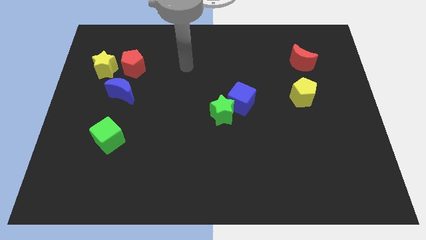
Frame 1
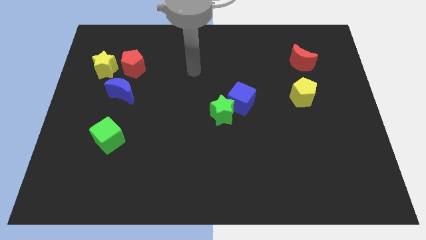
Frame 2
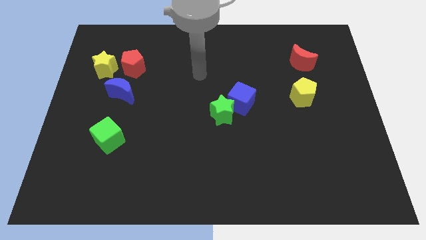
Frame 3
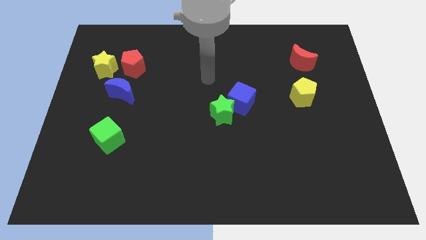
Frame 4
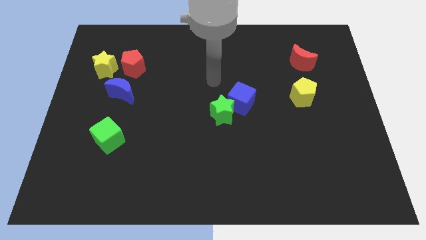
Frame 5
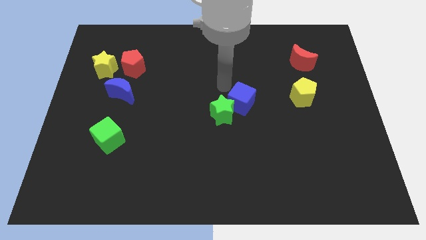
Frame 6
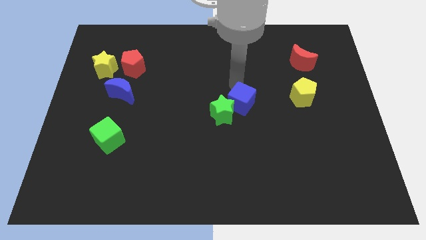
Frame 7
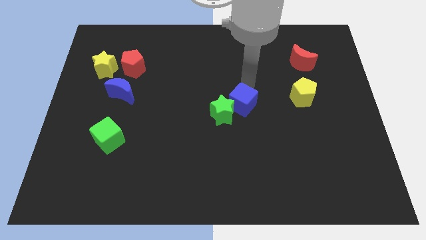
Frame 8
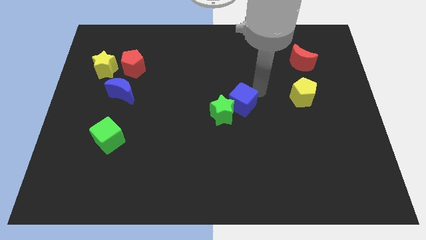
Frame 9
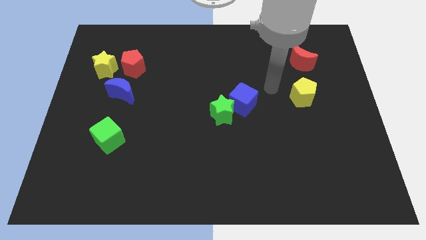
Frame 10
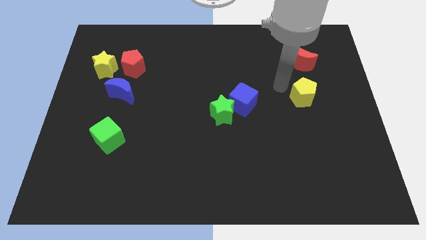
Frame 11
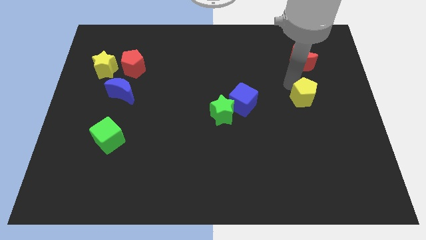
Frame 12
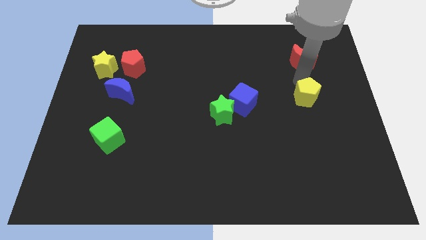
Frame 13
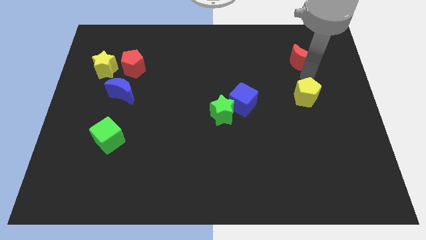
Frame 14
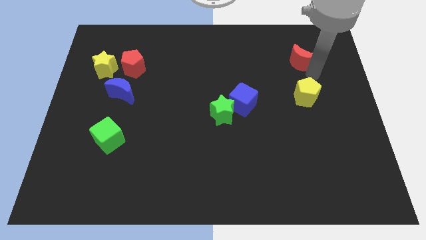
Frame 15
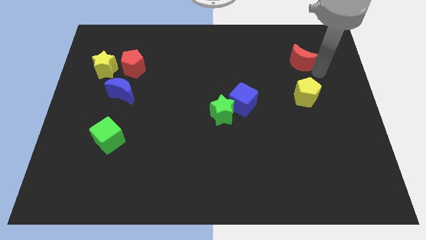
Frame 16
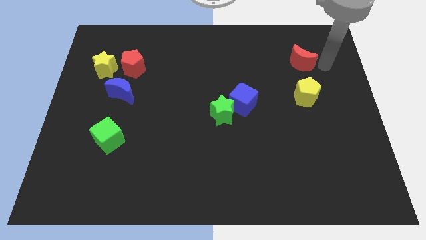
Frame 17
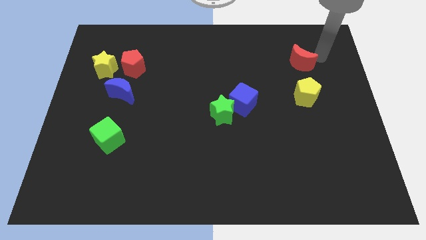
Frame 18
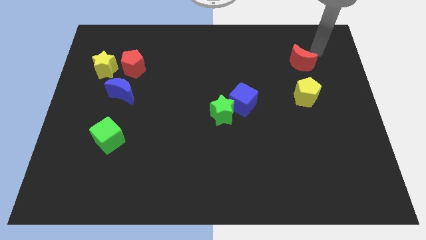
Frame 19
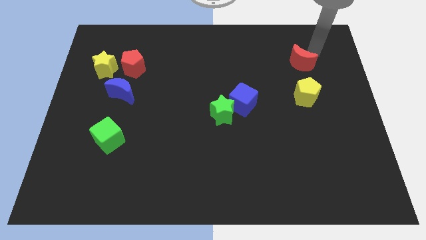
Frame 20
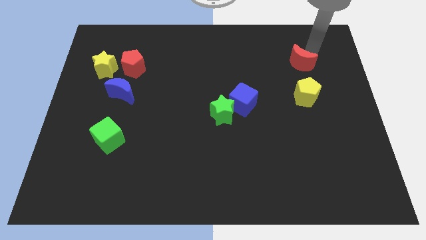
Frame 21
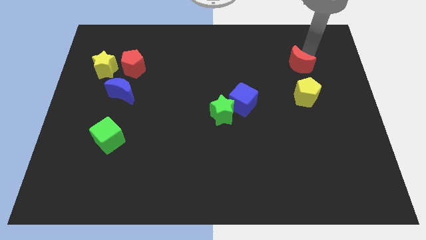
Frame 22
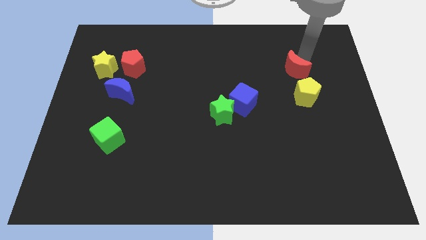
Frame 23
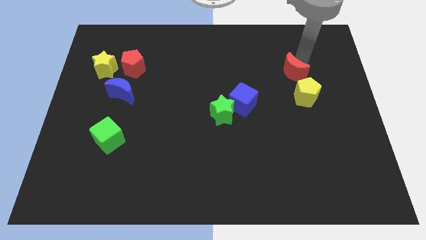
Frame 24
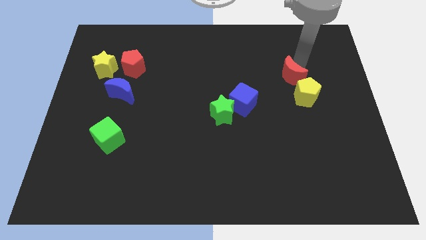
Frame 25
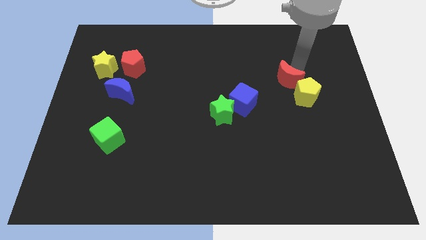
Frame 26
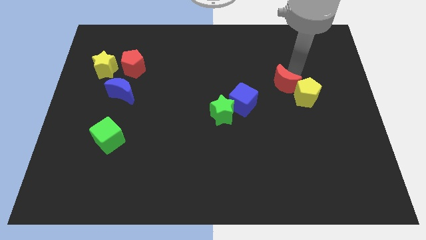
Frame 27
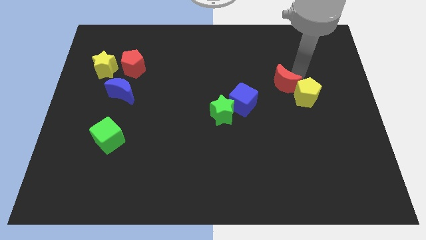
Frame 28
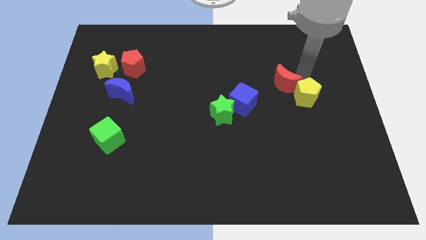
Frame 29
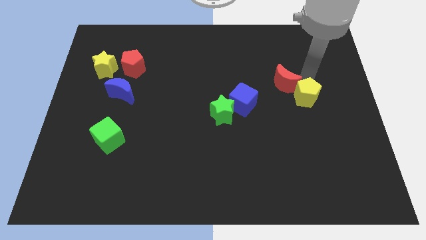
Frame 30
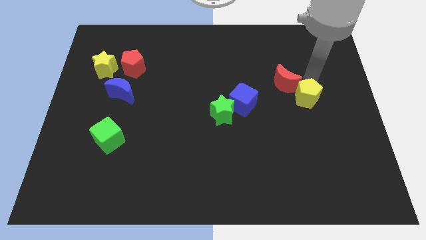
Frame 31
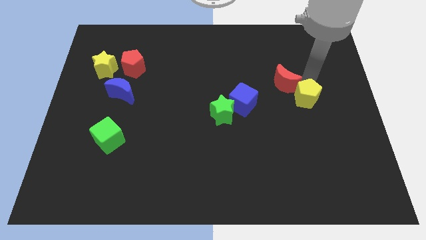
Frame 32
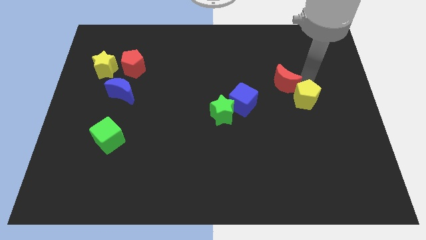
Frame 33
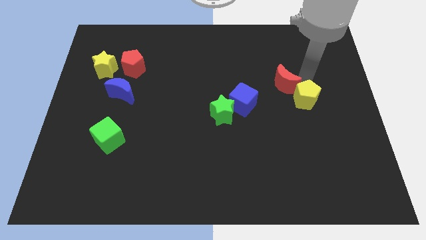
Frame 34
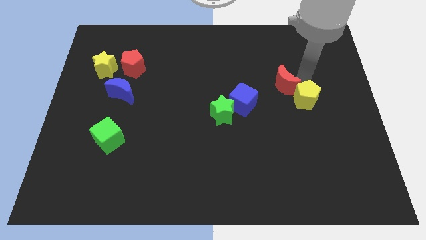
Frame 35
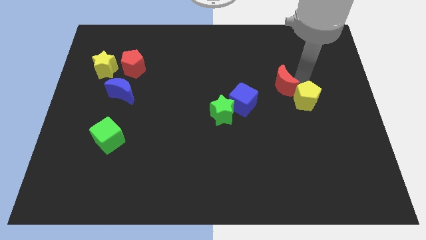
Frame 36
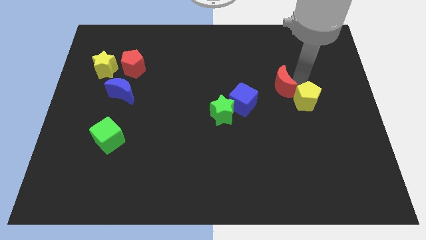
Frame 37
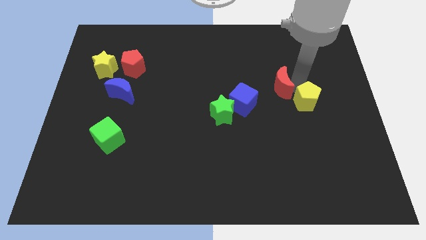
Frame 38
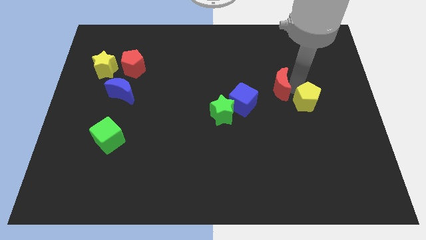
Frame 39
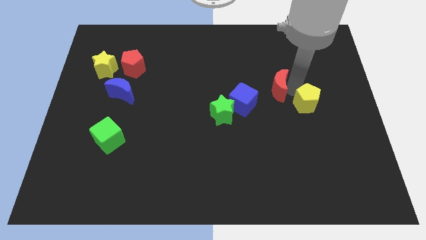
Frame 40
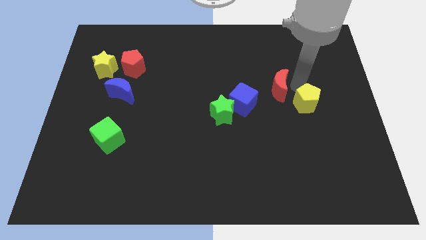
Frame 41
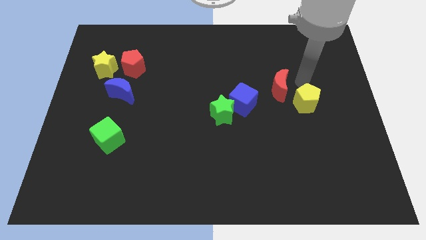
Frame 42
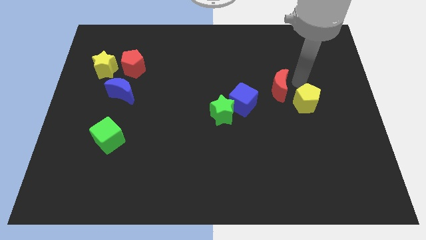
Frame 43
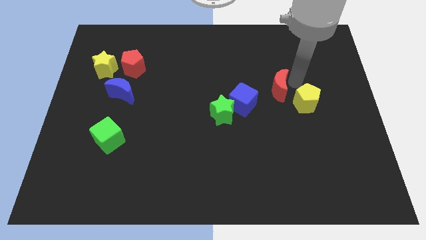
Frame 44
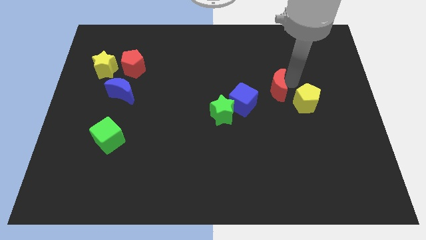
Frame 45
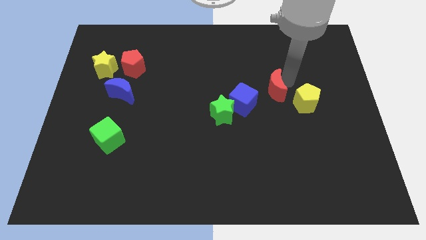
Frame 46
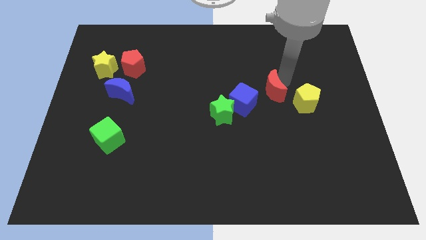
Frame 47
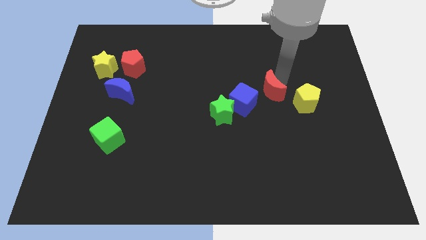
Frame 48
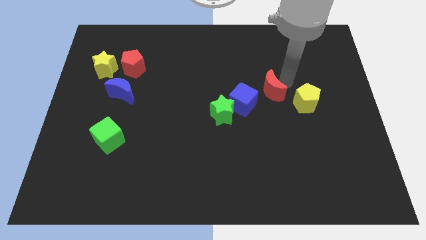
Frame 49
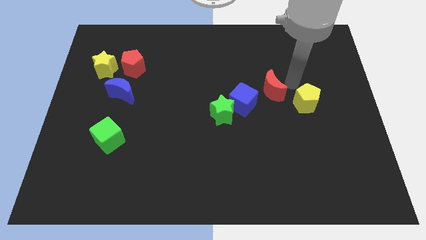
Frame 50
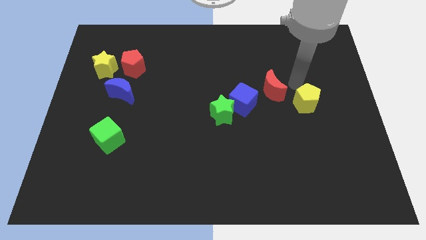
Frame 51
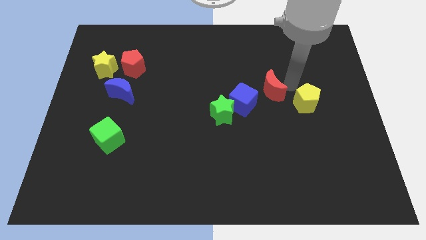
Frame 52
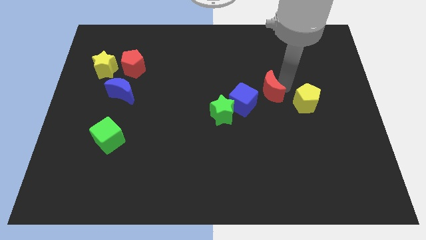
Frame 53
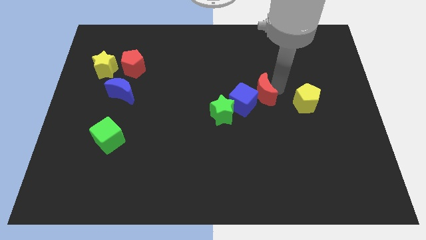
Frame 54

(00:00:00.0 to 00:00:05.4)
push the red moon diagonally up and to the right of the green star

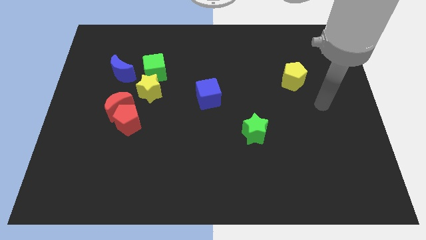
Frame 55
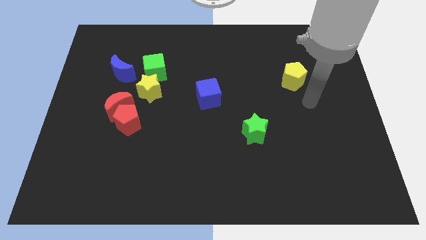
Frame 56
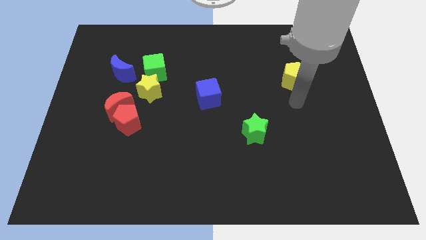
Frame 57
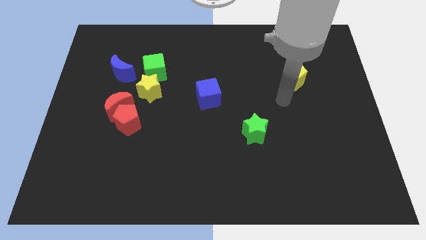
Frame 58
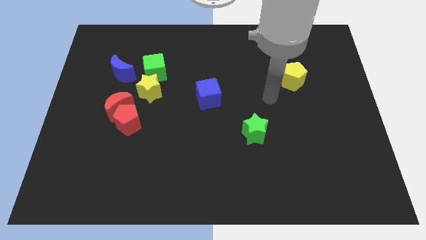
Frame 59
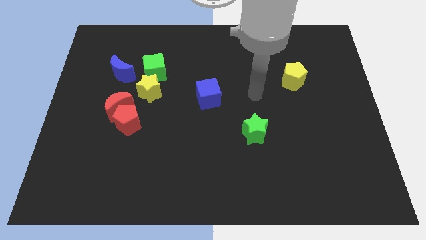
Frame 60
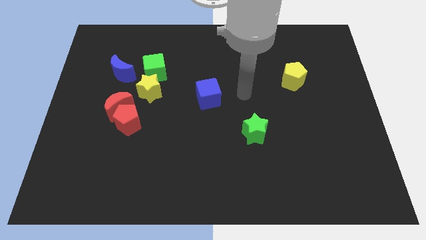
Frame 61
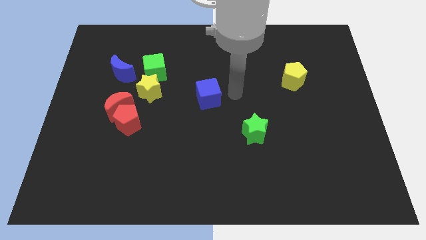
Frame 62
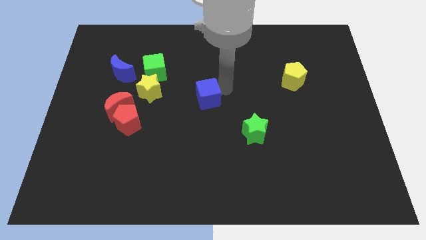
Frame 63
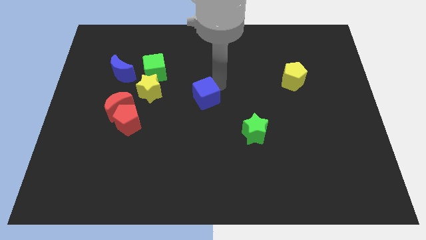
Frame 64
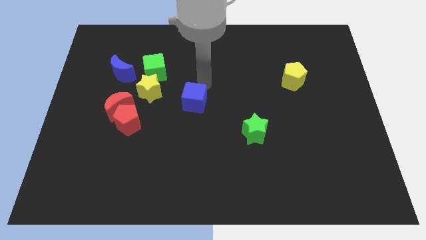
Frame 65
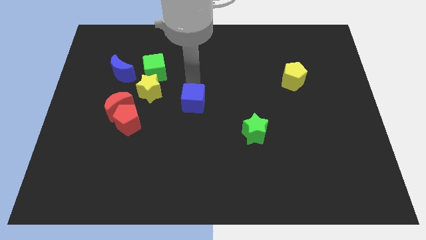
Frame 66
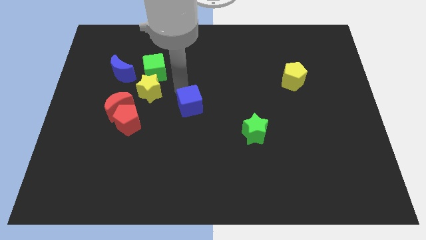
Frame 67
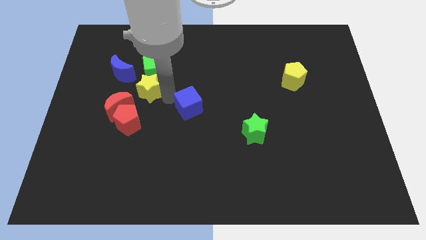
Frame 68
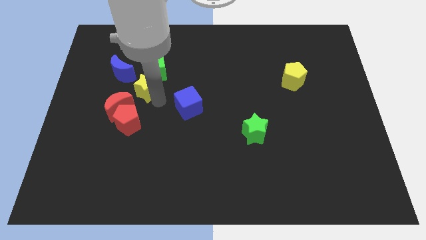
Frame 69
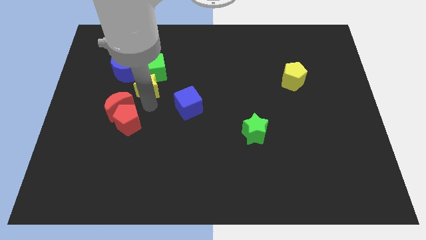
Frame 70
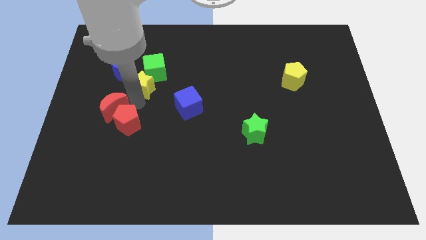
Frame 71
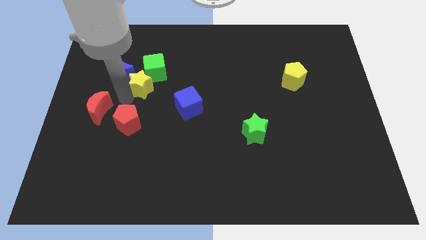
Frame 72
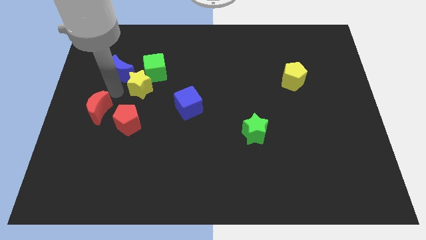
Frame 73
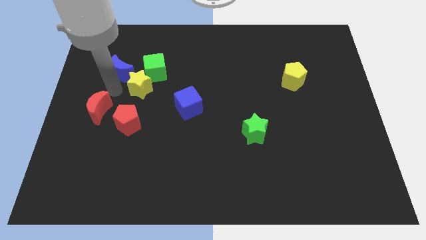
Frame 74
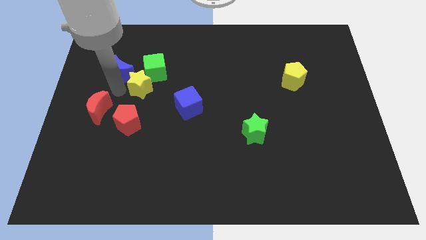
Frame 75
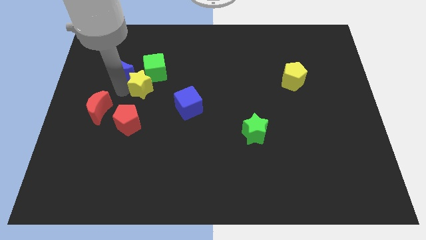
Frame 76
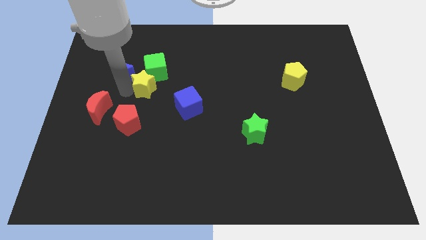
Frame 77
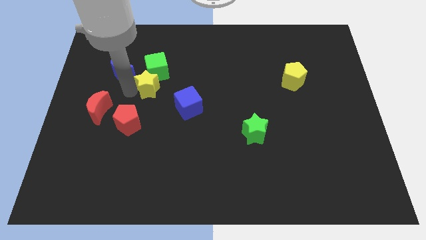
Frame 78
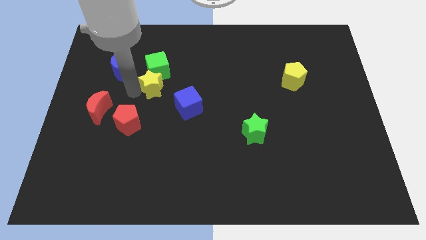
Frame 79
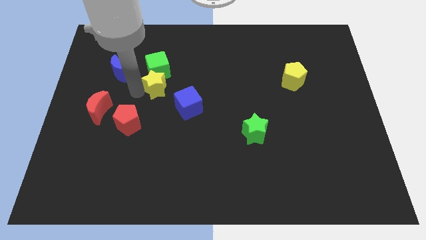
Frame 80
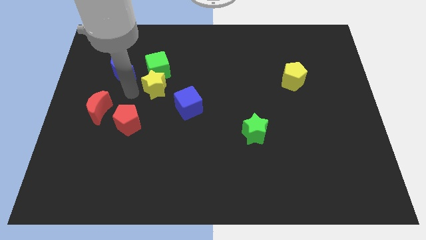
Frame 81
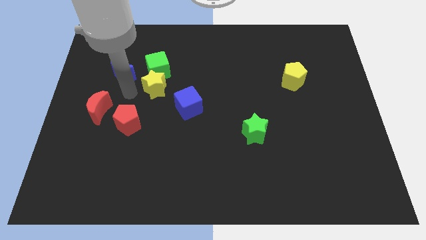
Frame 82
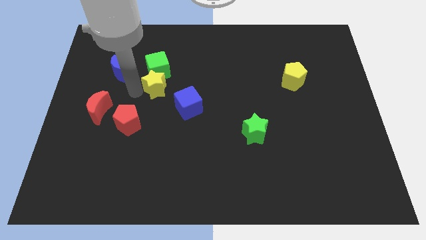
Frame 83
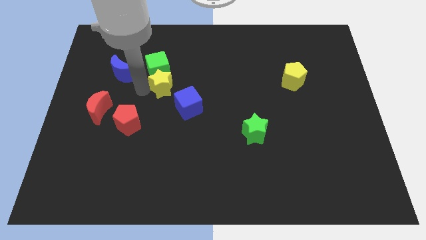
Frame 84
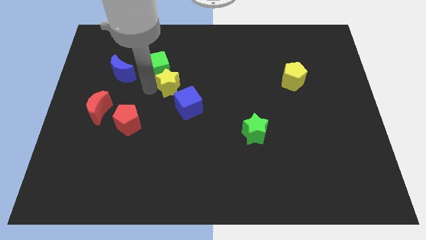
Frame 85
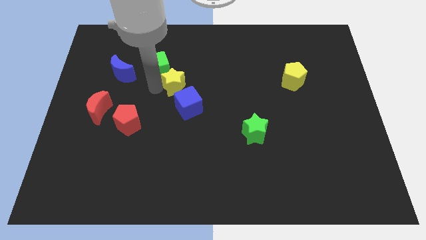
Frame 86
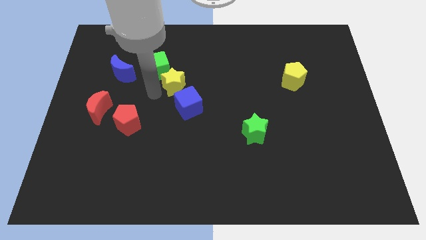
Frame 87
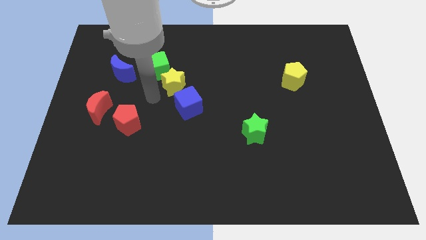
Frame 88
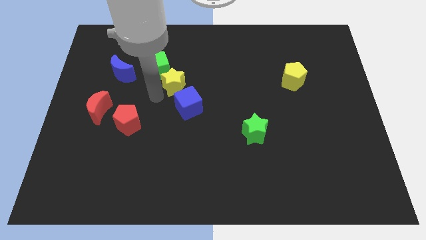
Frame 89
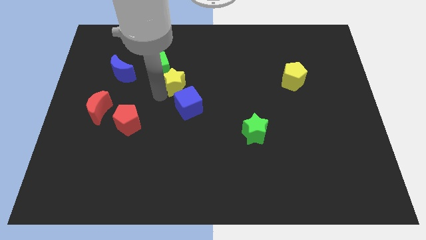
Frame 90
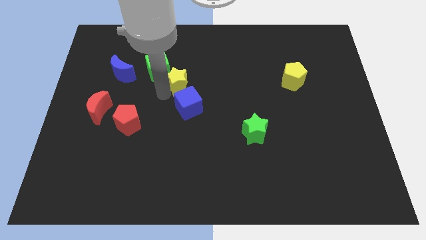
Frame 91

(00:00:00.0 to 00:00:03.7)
push the yellow star just right of the green cube
